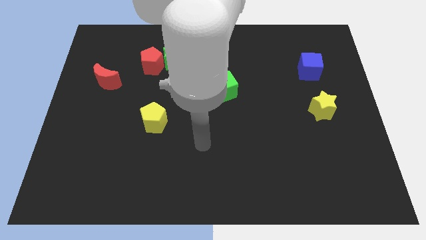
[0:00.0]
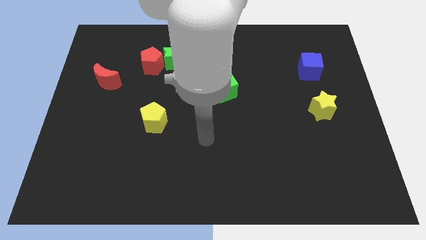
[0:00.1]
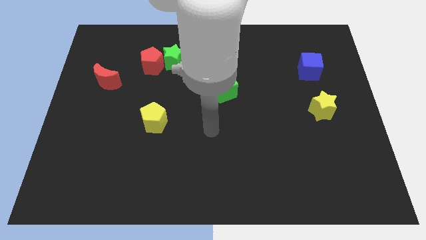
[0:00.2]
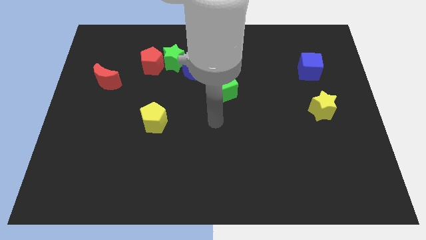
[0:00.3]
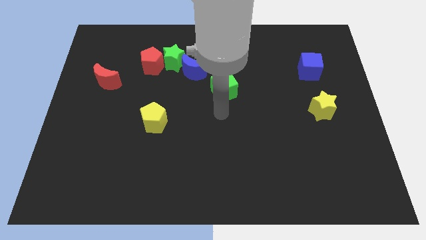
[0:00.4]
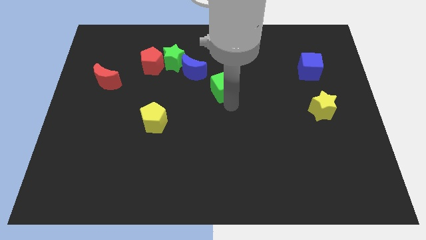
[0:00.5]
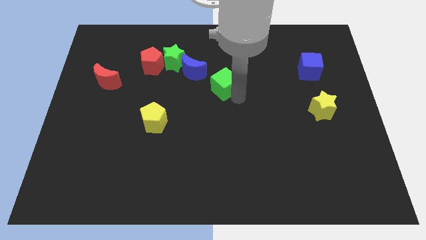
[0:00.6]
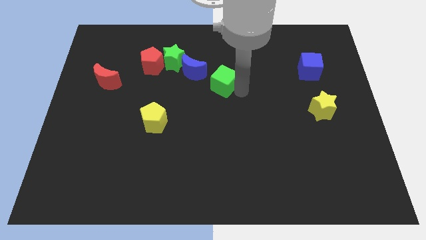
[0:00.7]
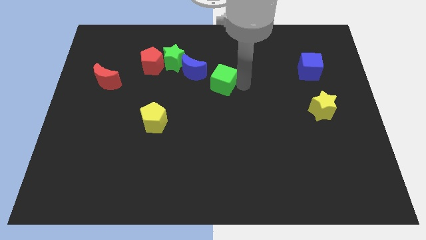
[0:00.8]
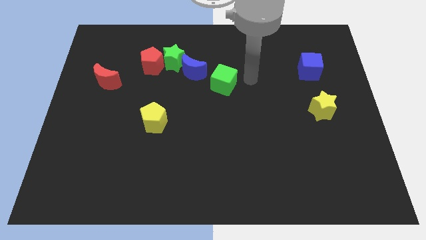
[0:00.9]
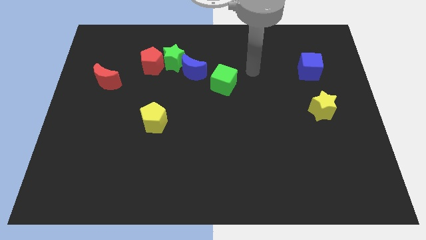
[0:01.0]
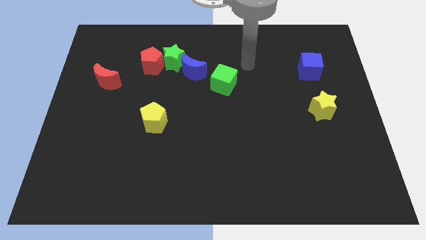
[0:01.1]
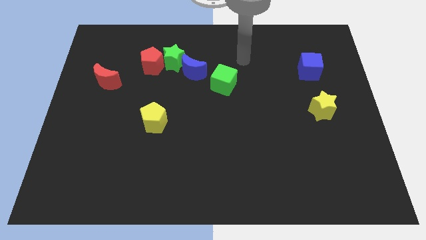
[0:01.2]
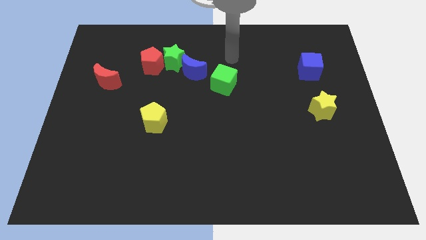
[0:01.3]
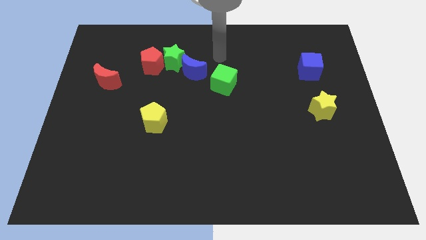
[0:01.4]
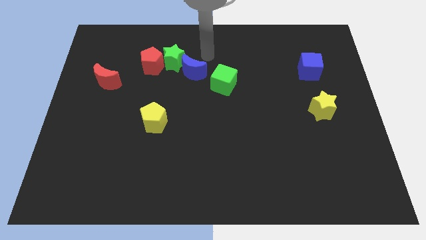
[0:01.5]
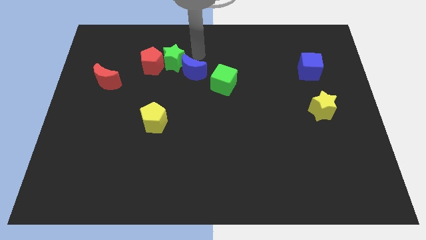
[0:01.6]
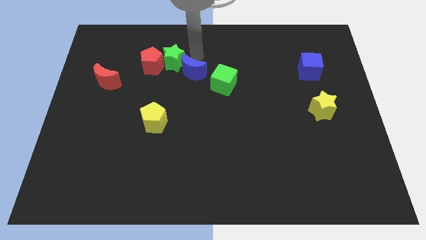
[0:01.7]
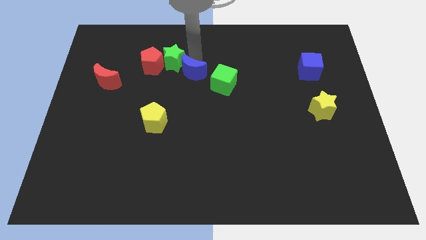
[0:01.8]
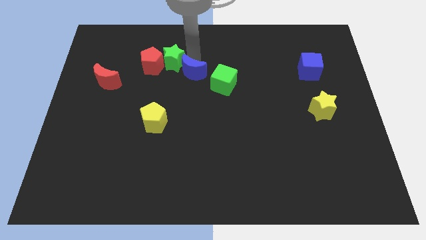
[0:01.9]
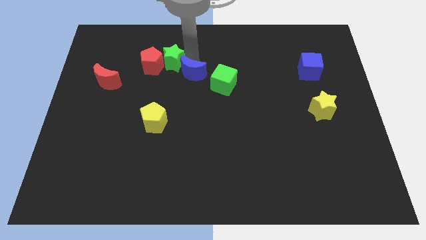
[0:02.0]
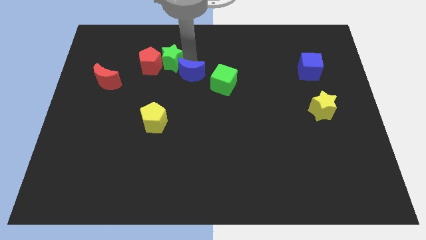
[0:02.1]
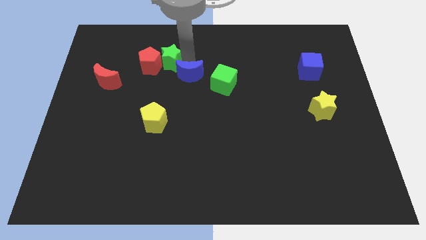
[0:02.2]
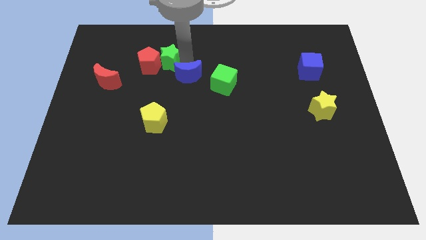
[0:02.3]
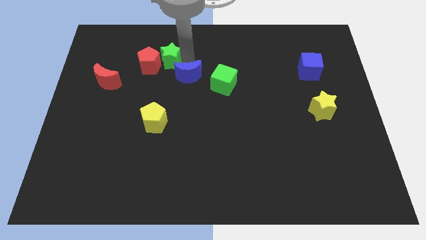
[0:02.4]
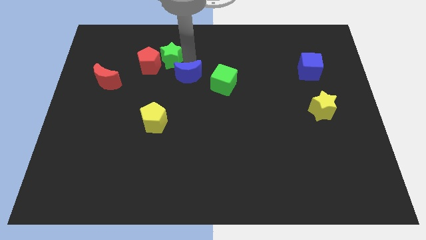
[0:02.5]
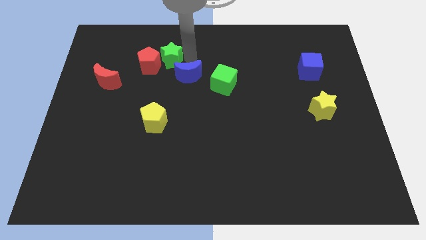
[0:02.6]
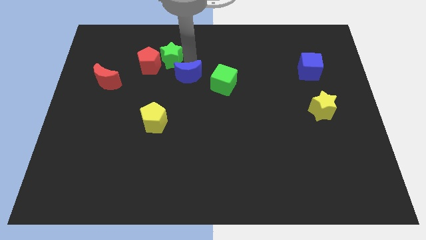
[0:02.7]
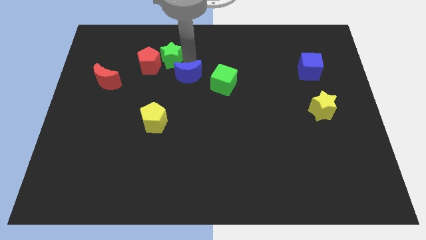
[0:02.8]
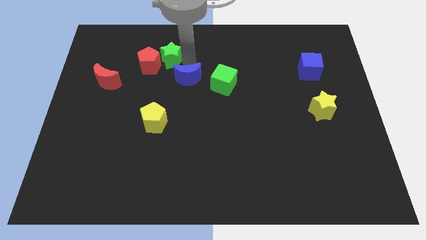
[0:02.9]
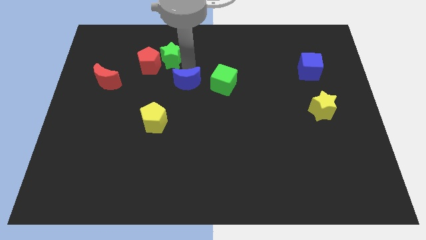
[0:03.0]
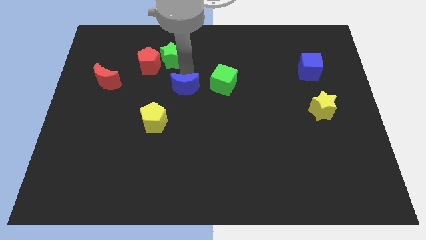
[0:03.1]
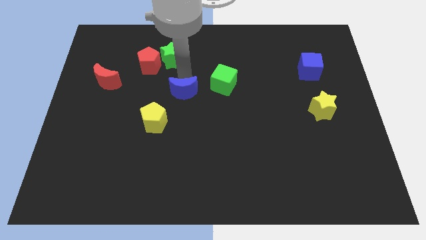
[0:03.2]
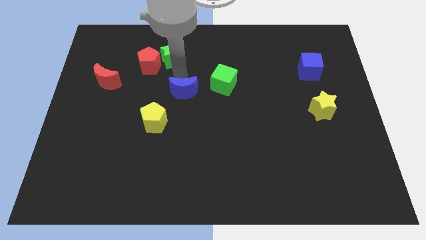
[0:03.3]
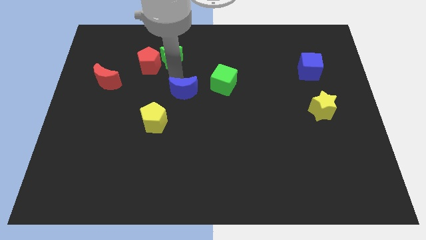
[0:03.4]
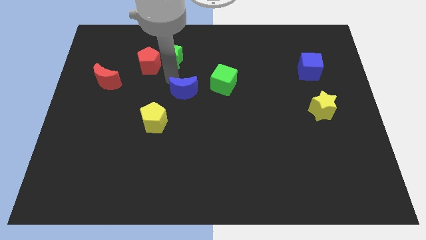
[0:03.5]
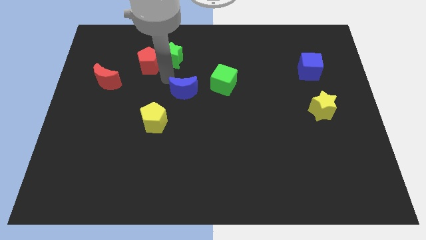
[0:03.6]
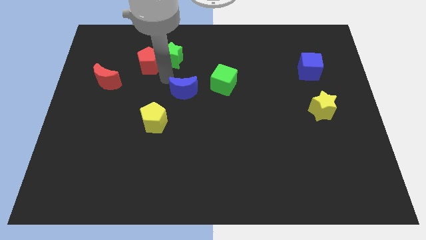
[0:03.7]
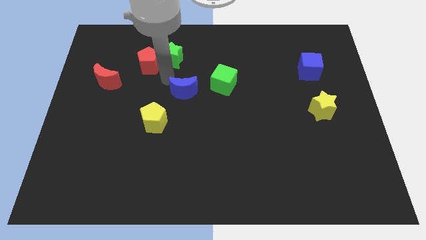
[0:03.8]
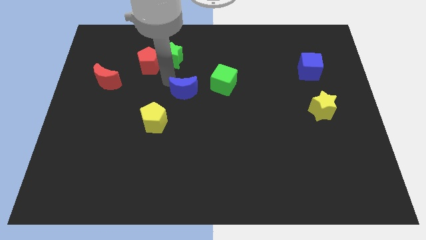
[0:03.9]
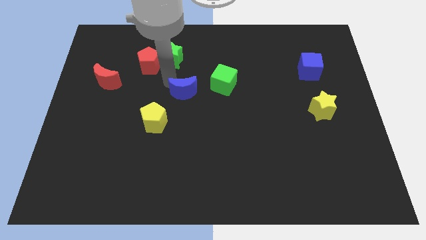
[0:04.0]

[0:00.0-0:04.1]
move the blue moon a little downwards

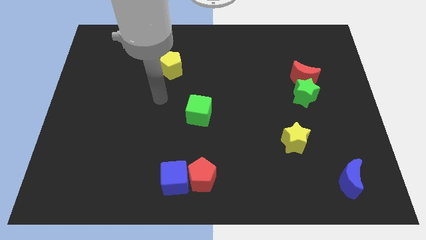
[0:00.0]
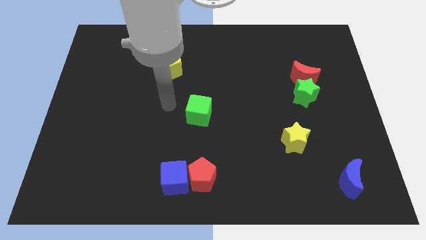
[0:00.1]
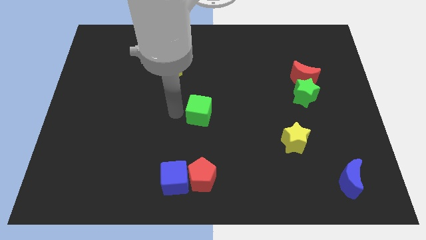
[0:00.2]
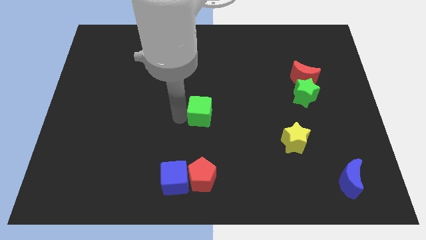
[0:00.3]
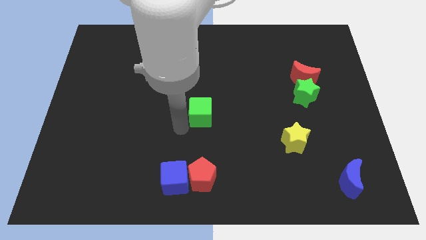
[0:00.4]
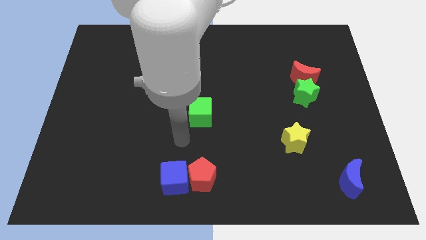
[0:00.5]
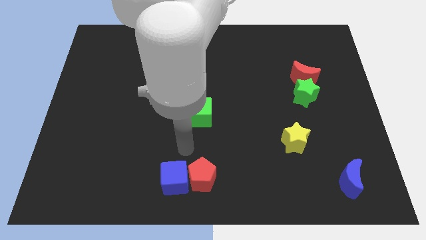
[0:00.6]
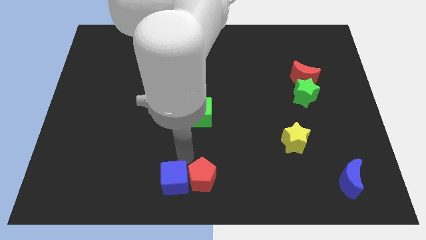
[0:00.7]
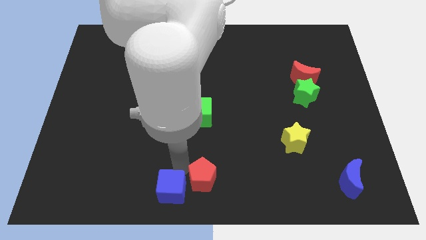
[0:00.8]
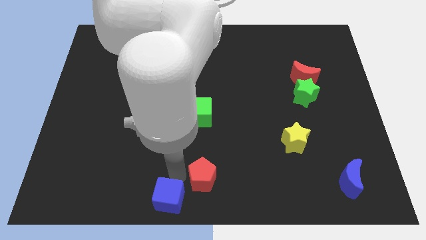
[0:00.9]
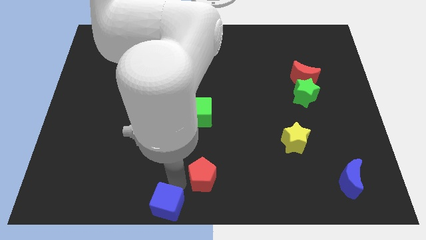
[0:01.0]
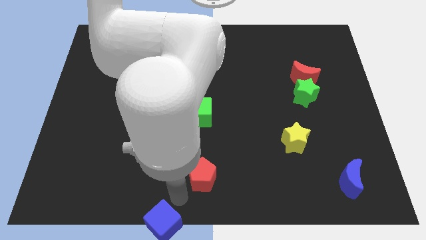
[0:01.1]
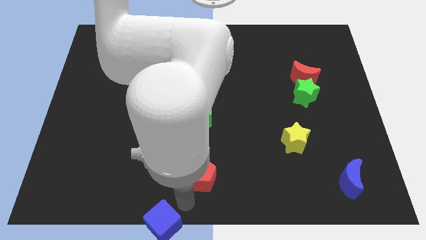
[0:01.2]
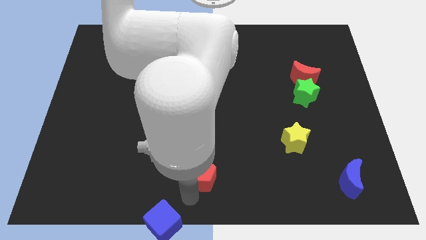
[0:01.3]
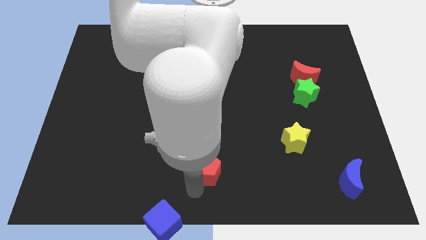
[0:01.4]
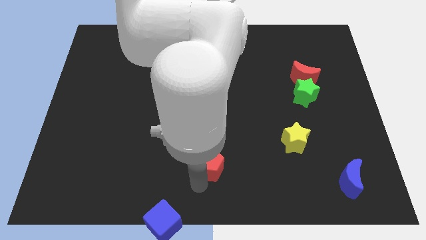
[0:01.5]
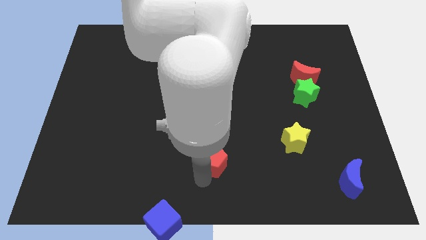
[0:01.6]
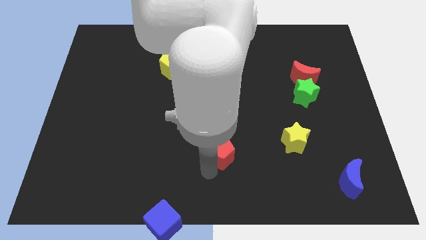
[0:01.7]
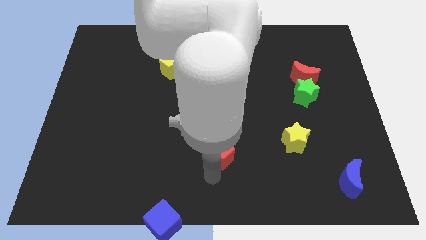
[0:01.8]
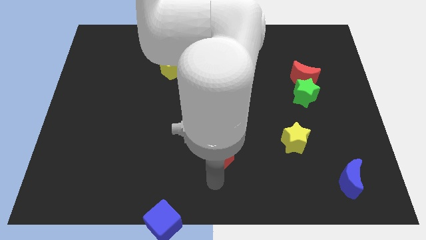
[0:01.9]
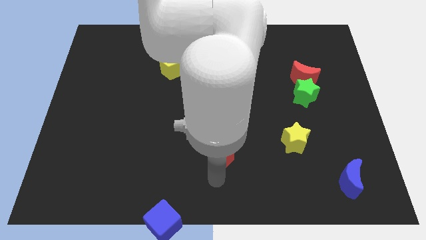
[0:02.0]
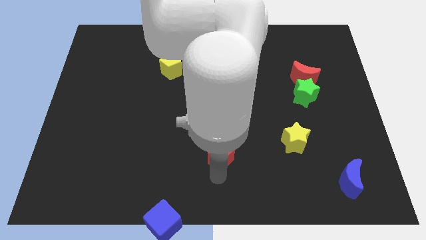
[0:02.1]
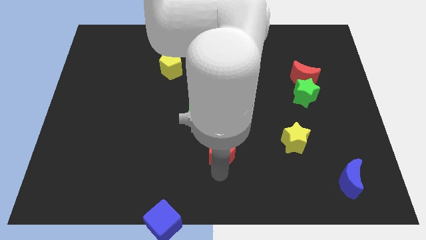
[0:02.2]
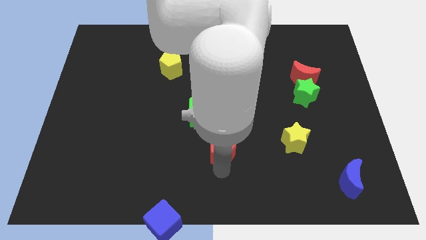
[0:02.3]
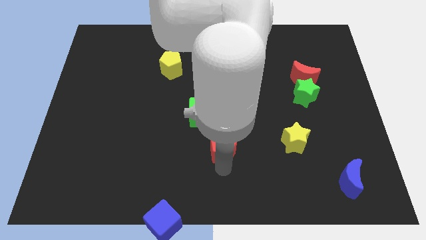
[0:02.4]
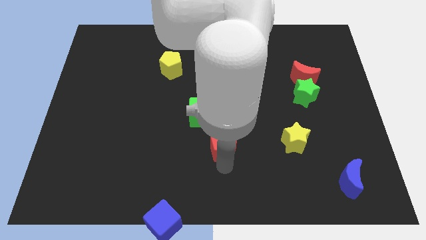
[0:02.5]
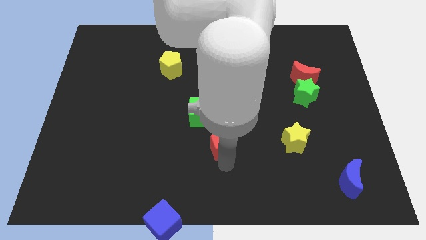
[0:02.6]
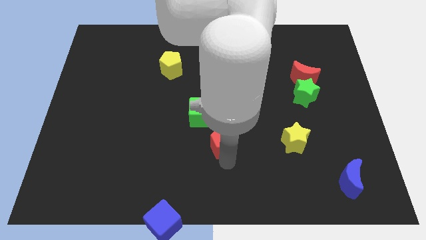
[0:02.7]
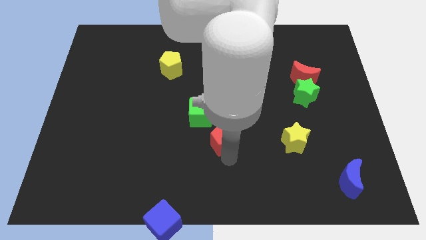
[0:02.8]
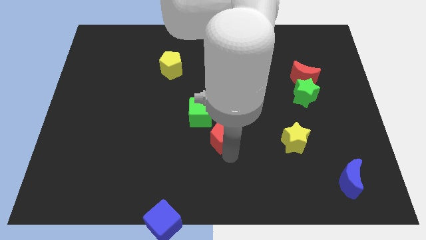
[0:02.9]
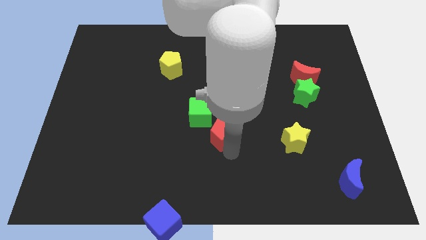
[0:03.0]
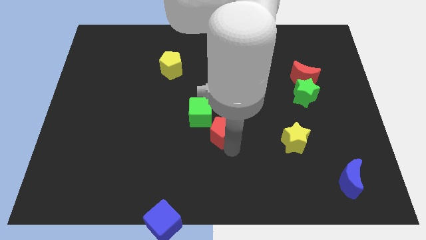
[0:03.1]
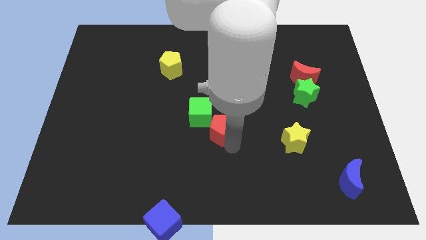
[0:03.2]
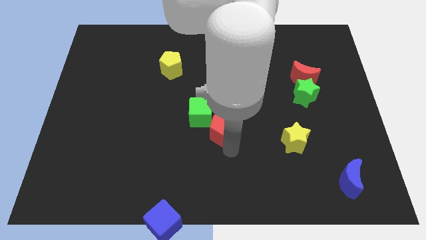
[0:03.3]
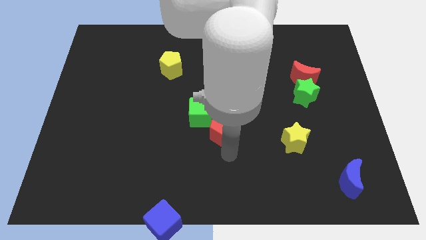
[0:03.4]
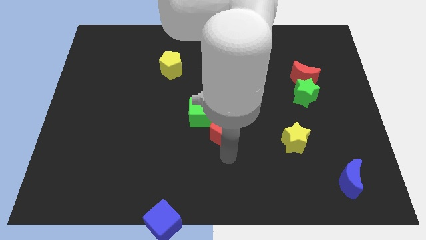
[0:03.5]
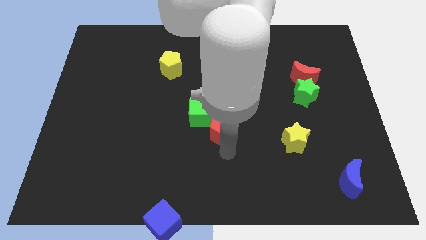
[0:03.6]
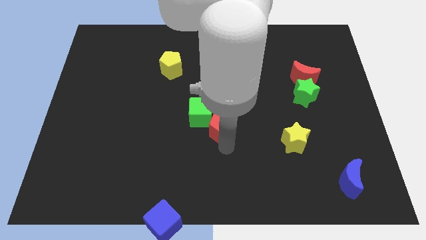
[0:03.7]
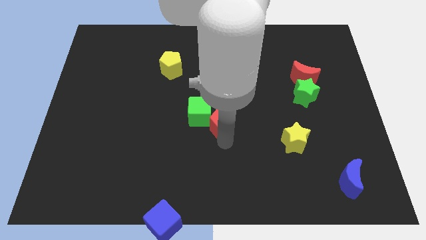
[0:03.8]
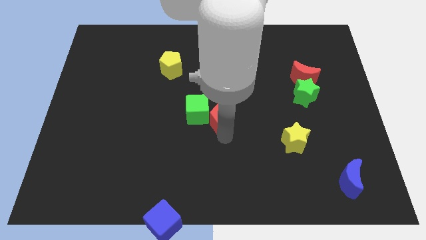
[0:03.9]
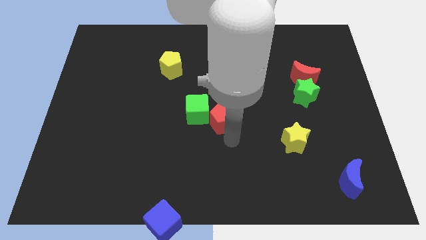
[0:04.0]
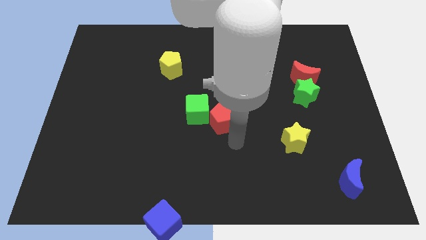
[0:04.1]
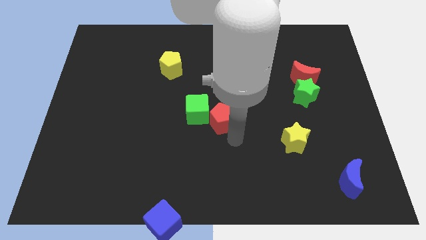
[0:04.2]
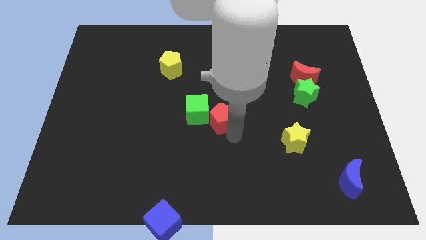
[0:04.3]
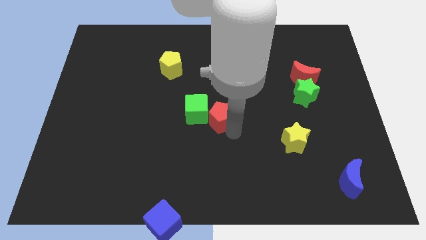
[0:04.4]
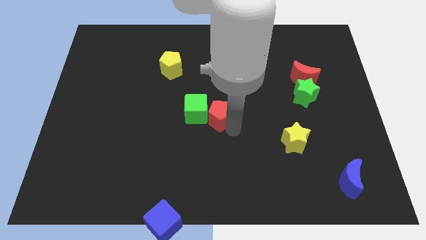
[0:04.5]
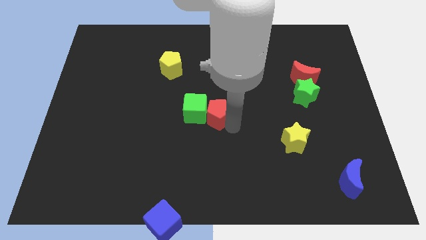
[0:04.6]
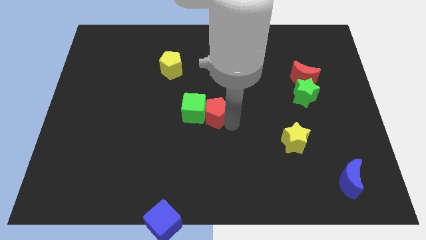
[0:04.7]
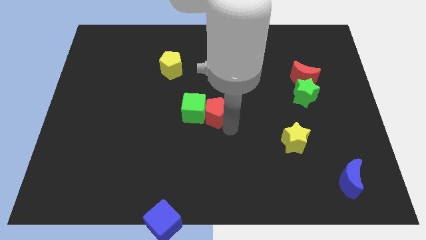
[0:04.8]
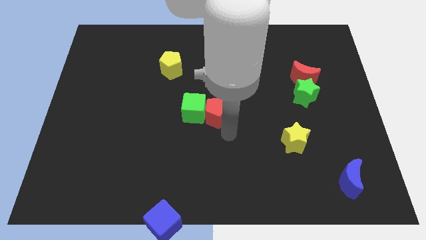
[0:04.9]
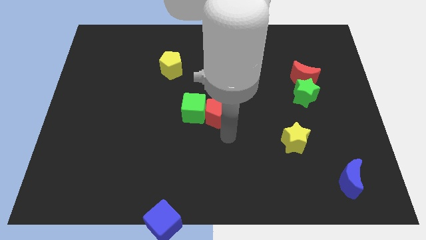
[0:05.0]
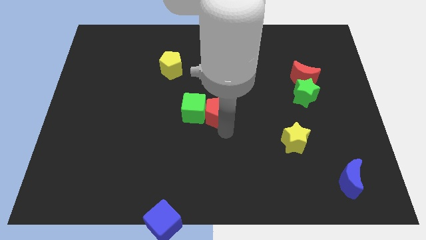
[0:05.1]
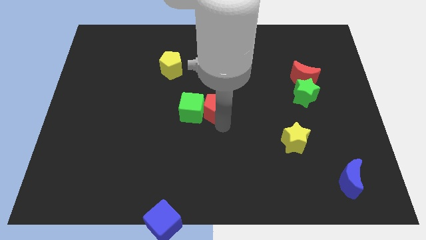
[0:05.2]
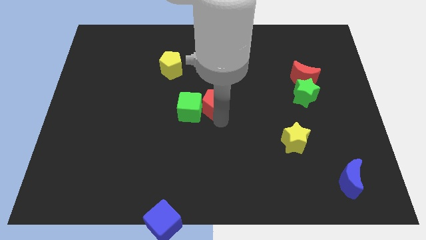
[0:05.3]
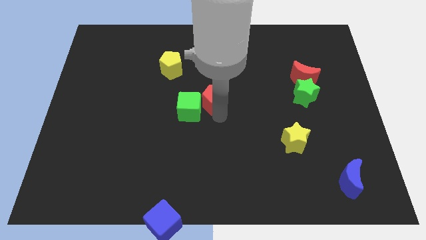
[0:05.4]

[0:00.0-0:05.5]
move the red pentagon upwards
